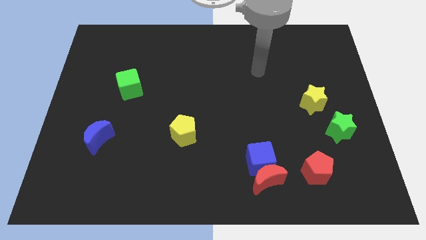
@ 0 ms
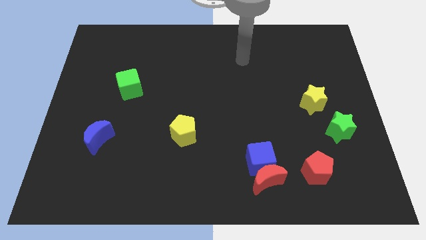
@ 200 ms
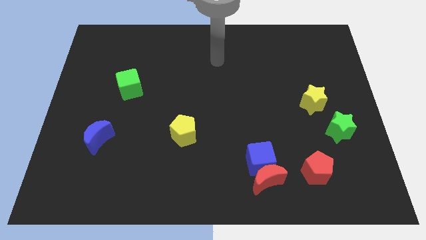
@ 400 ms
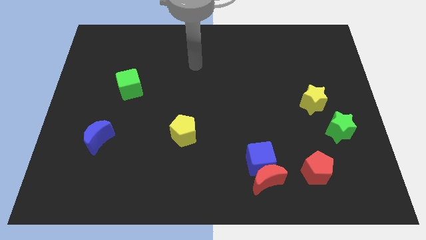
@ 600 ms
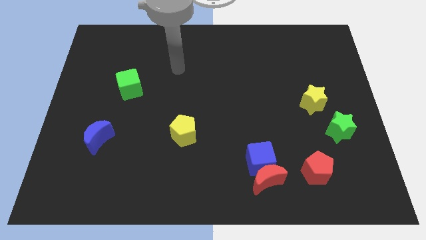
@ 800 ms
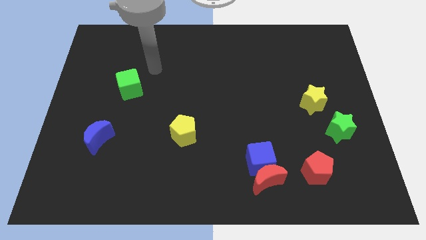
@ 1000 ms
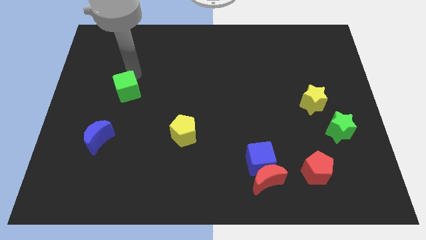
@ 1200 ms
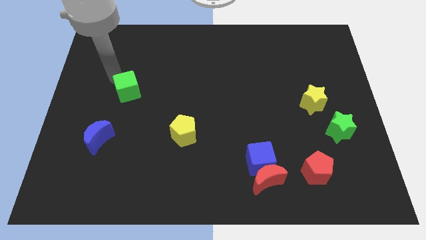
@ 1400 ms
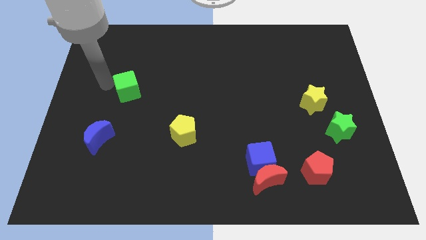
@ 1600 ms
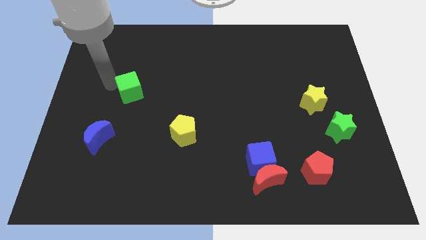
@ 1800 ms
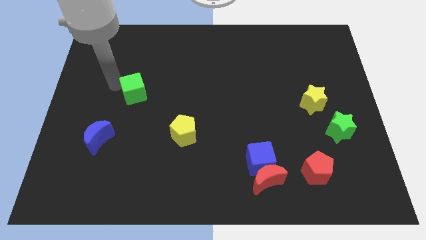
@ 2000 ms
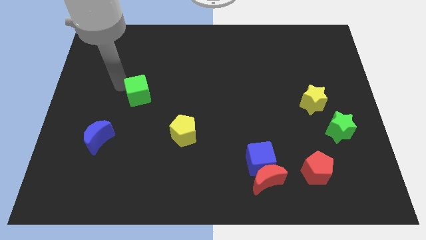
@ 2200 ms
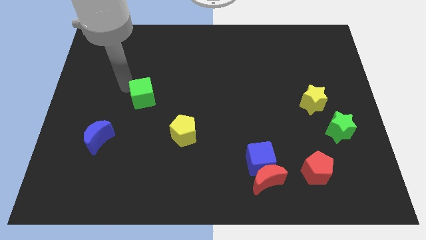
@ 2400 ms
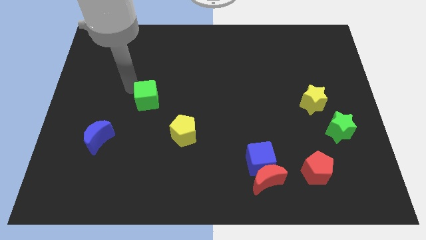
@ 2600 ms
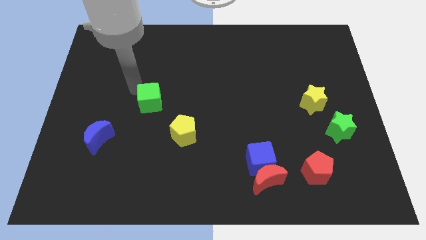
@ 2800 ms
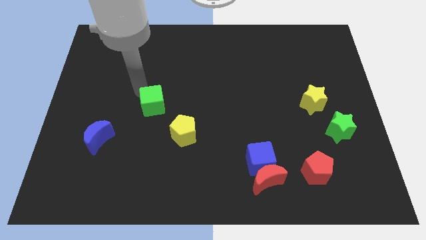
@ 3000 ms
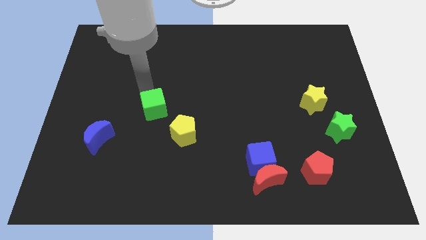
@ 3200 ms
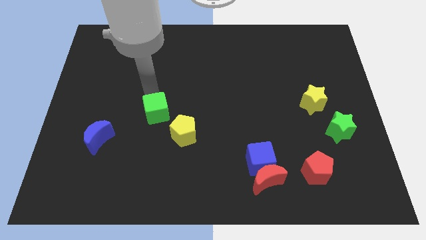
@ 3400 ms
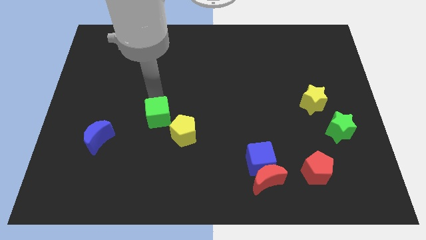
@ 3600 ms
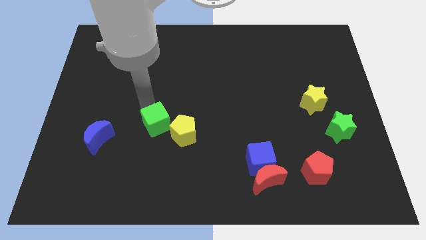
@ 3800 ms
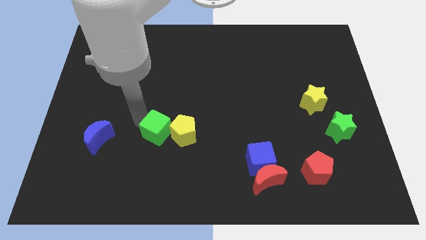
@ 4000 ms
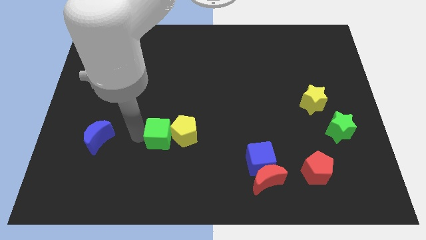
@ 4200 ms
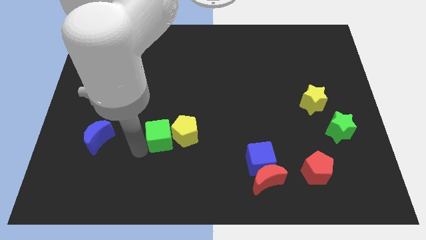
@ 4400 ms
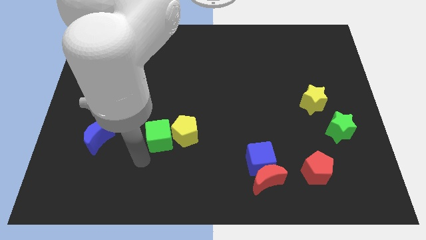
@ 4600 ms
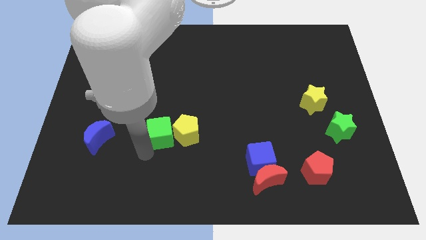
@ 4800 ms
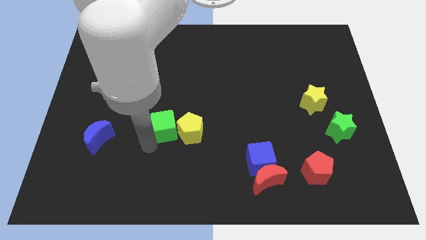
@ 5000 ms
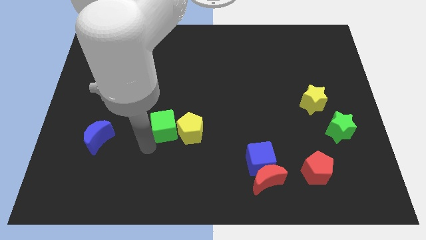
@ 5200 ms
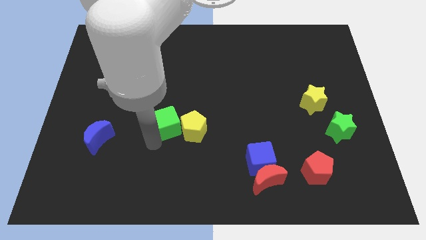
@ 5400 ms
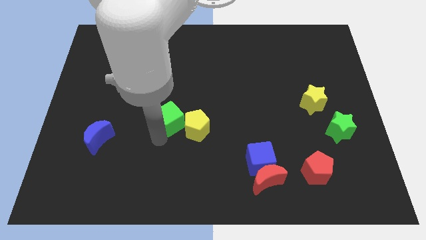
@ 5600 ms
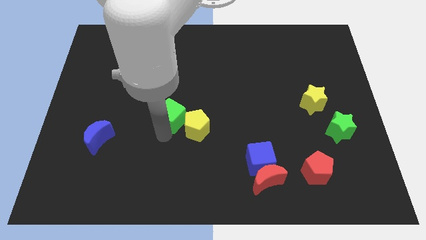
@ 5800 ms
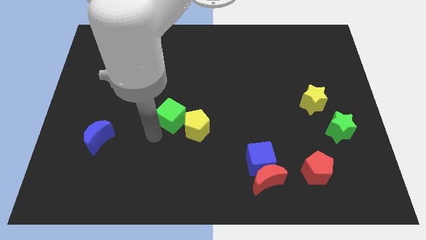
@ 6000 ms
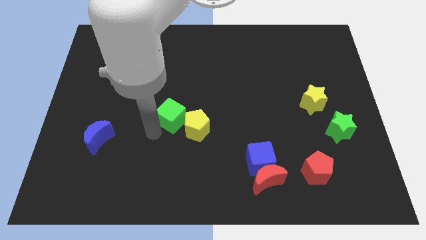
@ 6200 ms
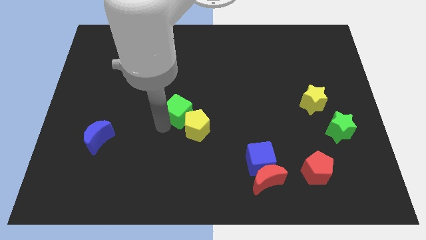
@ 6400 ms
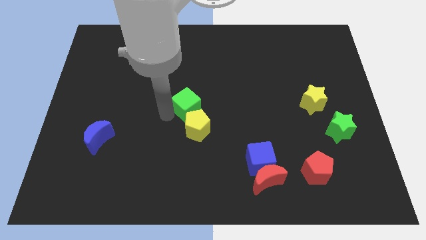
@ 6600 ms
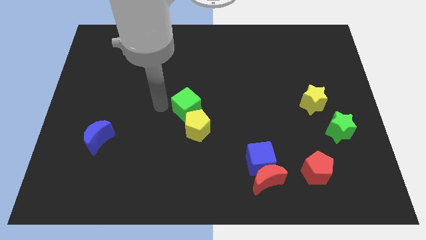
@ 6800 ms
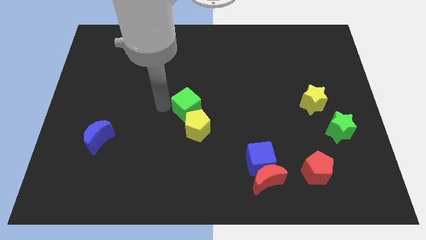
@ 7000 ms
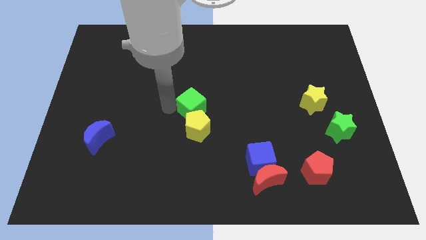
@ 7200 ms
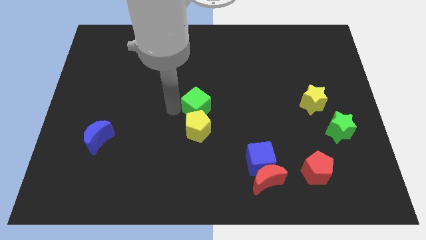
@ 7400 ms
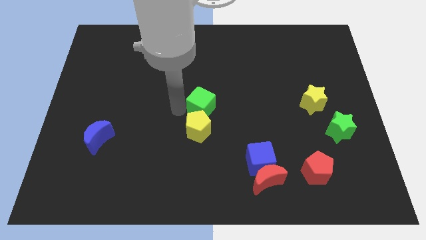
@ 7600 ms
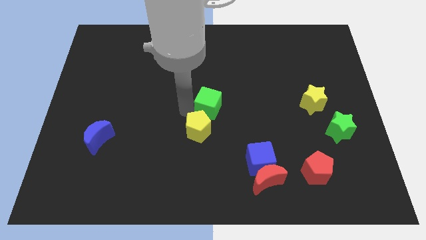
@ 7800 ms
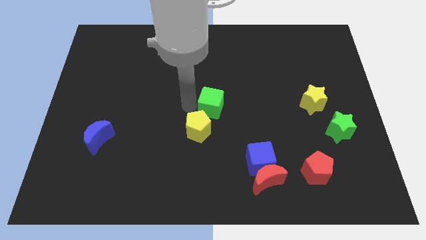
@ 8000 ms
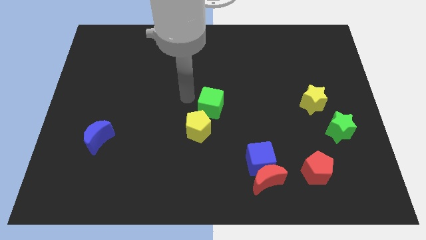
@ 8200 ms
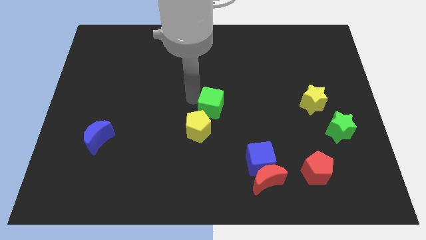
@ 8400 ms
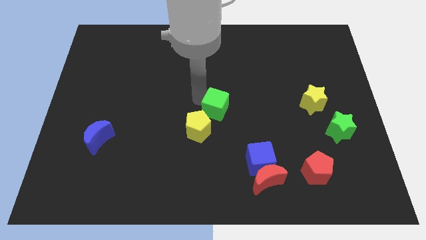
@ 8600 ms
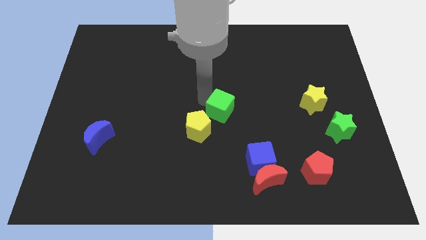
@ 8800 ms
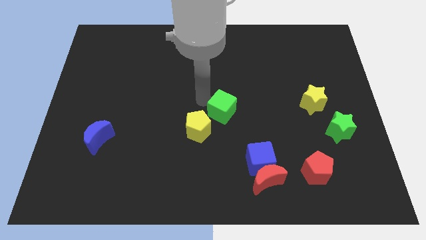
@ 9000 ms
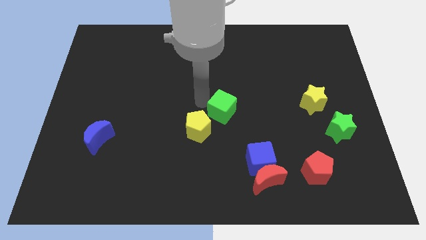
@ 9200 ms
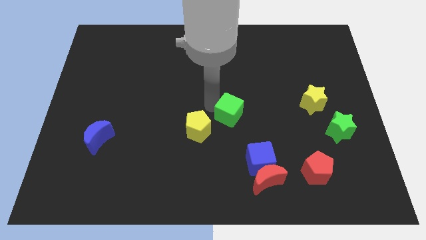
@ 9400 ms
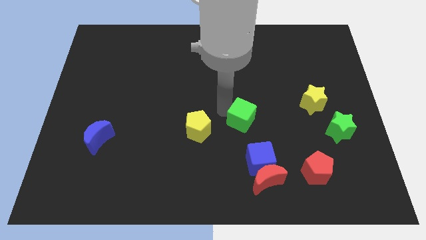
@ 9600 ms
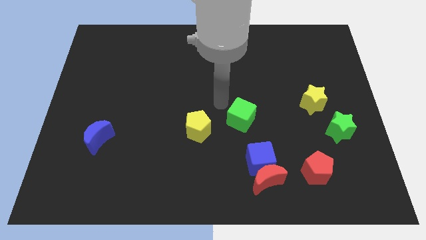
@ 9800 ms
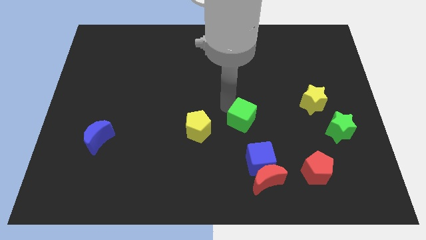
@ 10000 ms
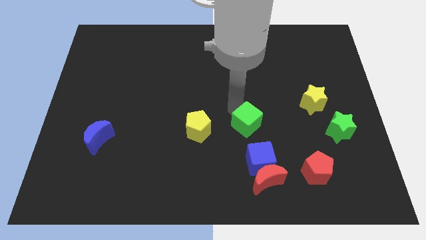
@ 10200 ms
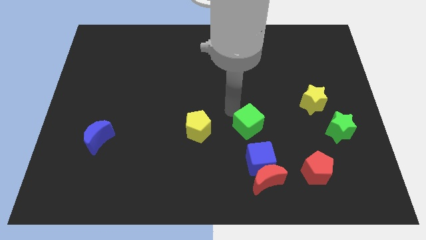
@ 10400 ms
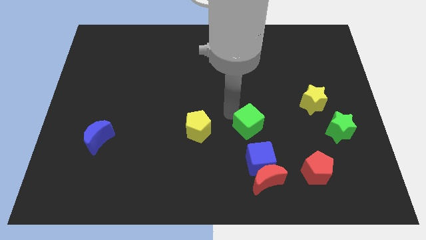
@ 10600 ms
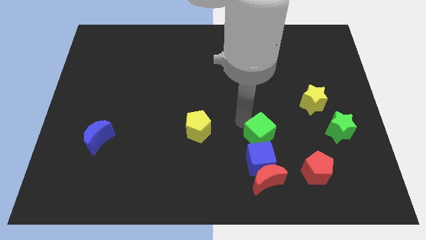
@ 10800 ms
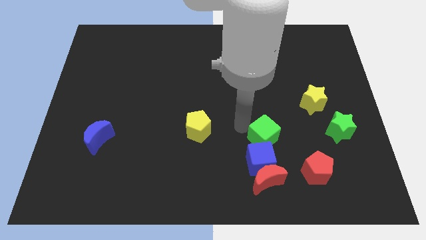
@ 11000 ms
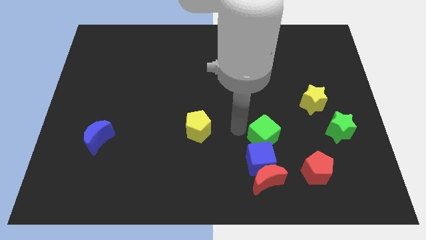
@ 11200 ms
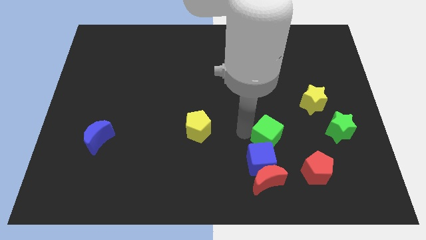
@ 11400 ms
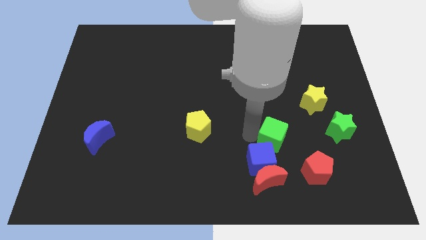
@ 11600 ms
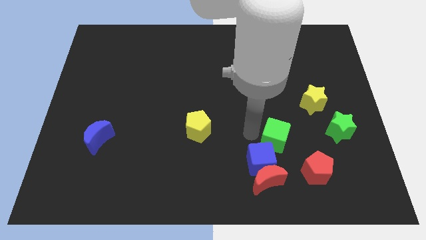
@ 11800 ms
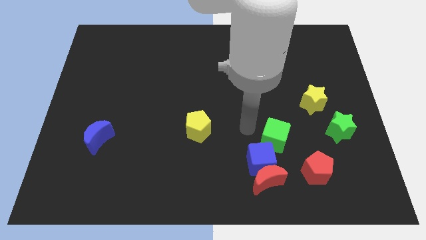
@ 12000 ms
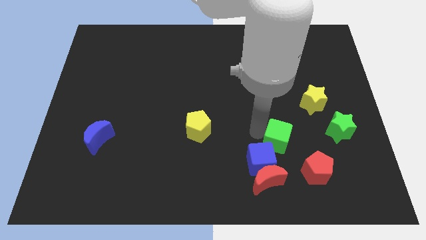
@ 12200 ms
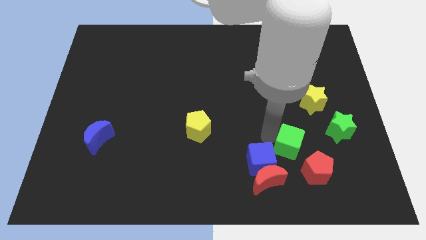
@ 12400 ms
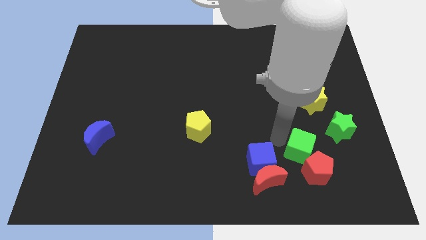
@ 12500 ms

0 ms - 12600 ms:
slide the green cube close to the red pentagon

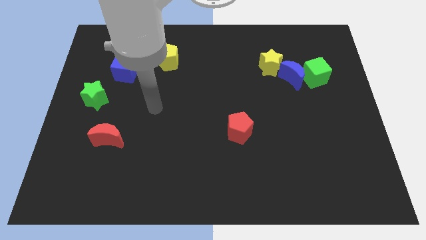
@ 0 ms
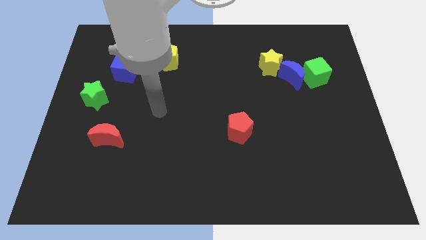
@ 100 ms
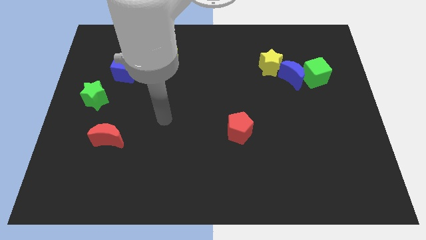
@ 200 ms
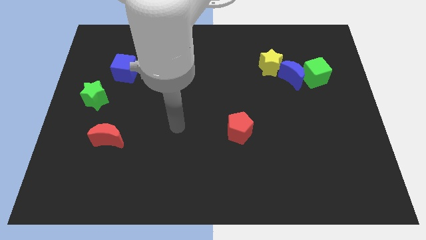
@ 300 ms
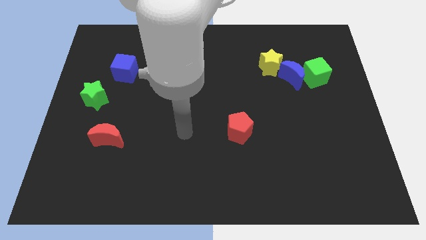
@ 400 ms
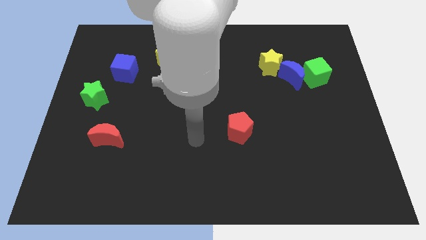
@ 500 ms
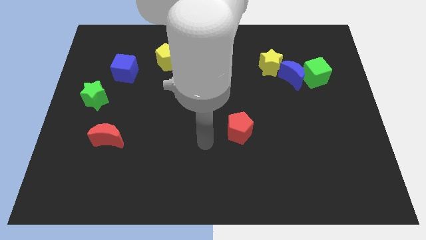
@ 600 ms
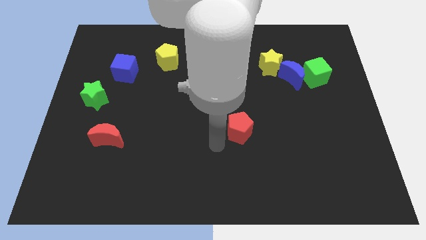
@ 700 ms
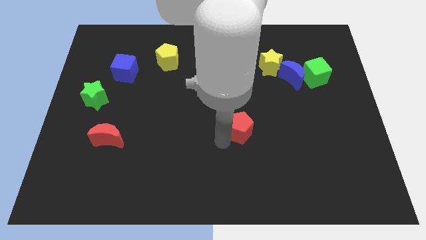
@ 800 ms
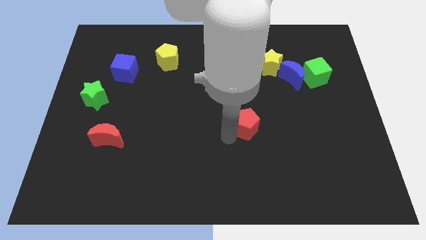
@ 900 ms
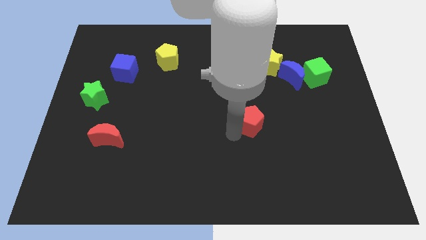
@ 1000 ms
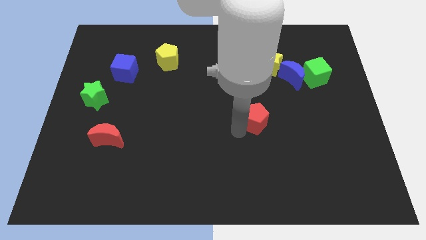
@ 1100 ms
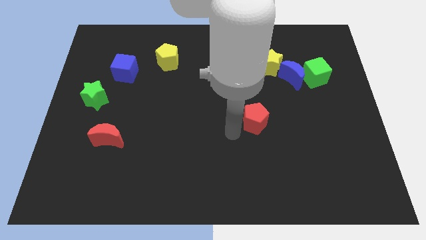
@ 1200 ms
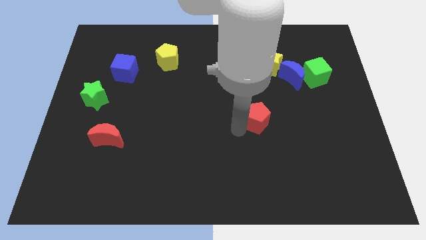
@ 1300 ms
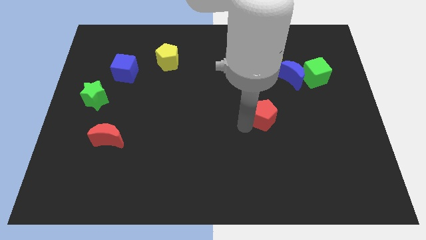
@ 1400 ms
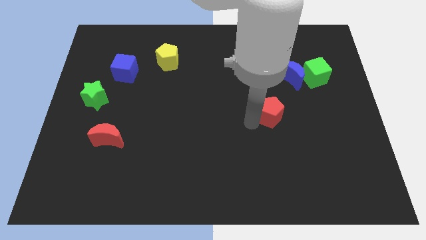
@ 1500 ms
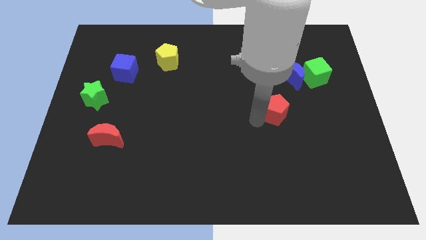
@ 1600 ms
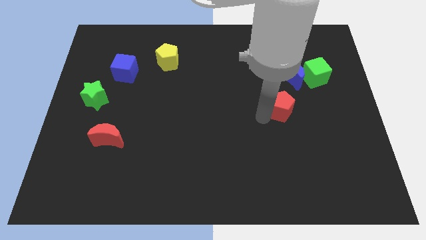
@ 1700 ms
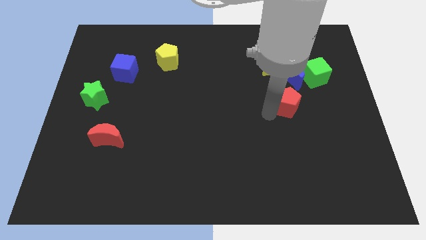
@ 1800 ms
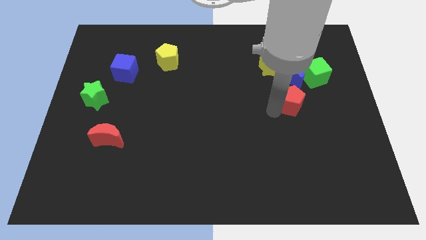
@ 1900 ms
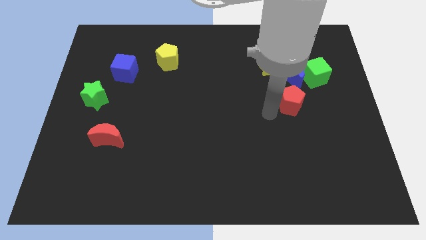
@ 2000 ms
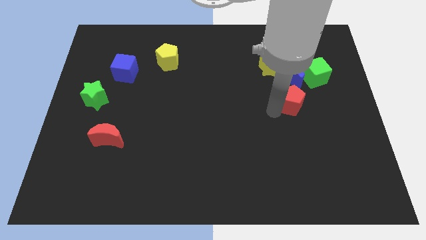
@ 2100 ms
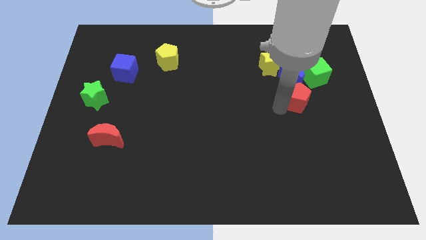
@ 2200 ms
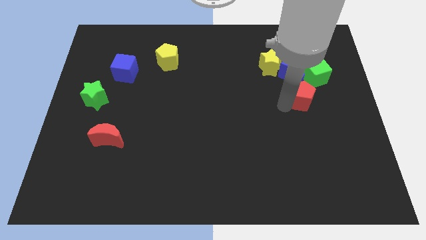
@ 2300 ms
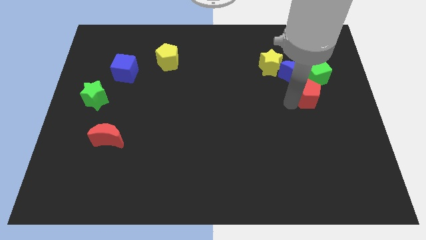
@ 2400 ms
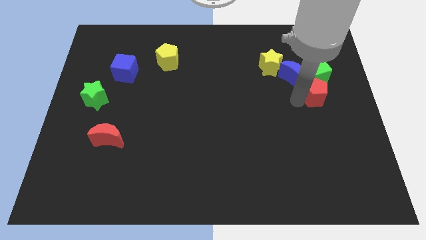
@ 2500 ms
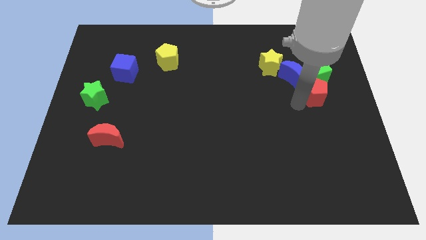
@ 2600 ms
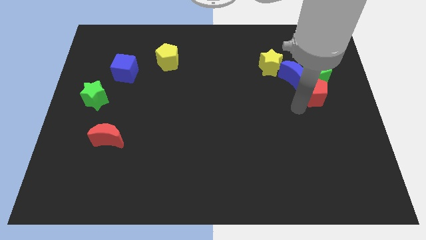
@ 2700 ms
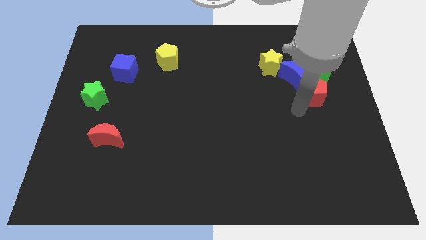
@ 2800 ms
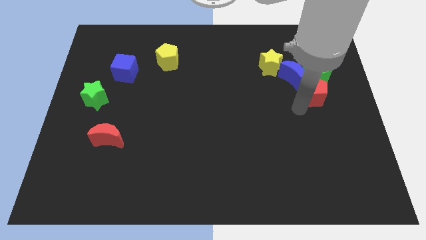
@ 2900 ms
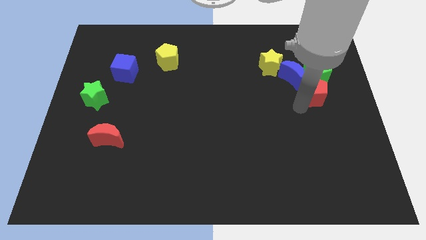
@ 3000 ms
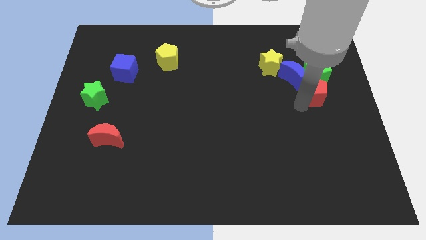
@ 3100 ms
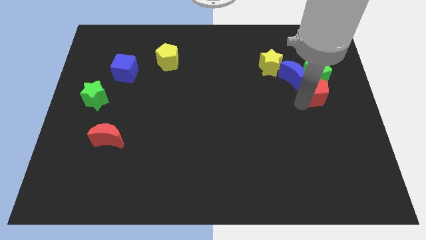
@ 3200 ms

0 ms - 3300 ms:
push the red pentagon close to the green cube
